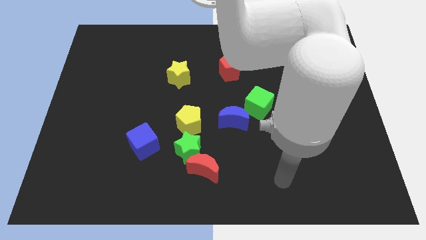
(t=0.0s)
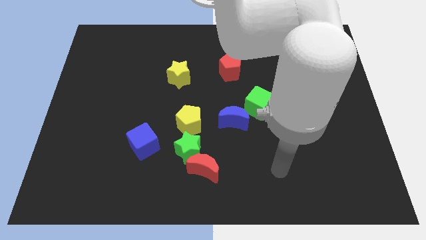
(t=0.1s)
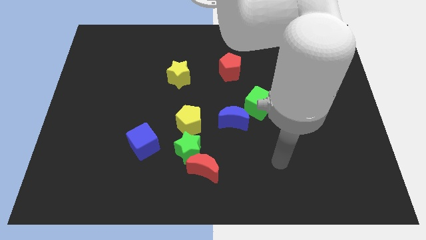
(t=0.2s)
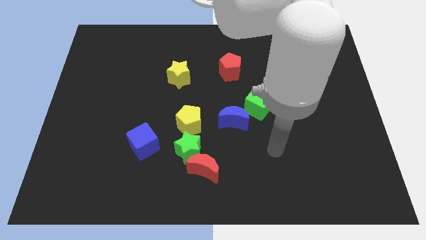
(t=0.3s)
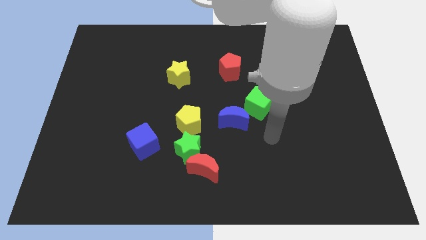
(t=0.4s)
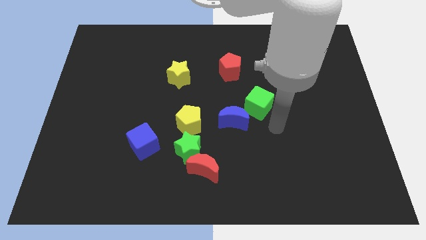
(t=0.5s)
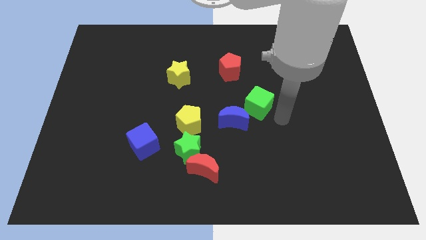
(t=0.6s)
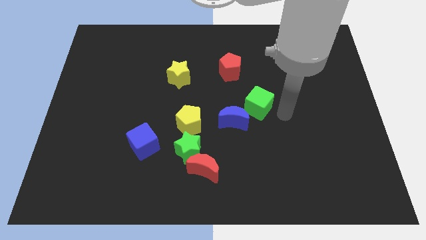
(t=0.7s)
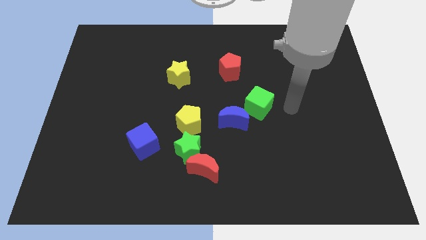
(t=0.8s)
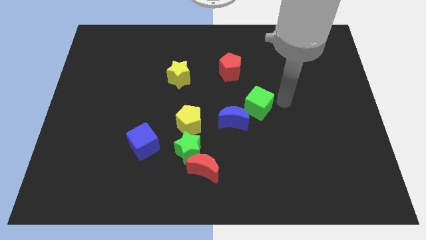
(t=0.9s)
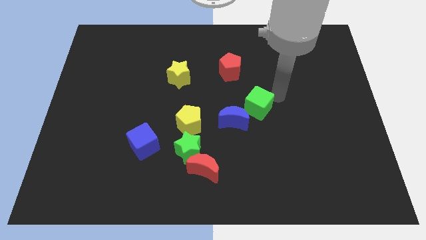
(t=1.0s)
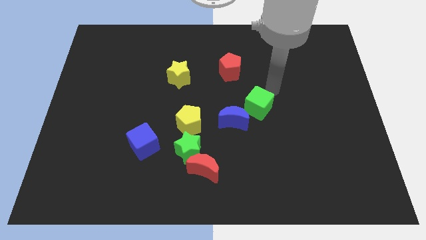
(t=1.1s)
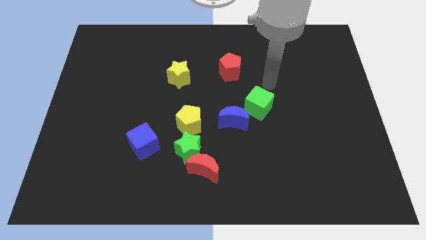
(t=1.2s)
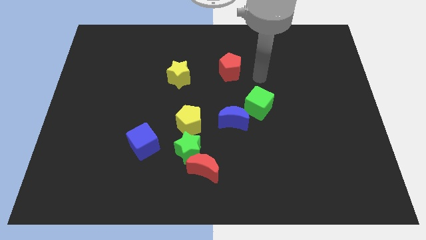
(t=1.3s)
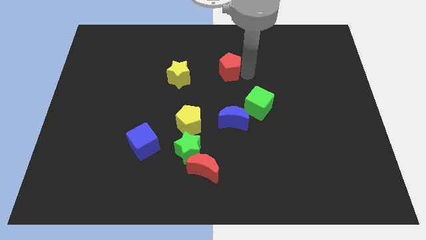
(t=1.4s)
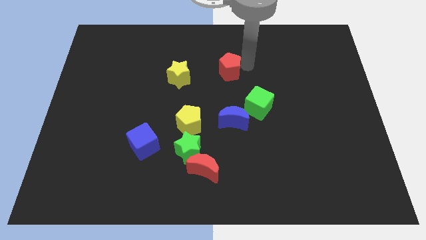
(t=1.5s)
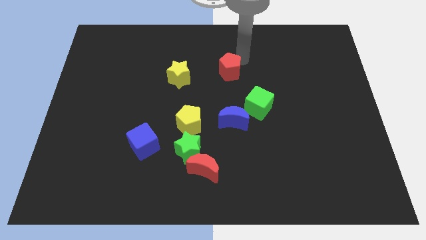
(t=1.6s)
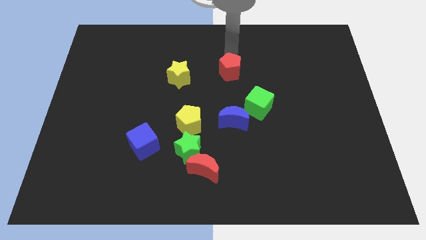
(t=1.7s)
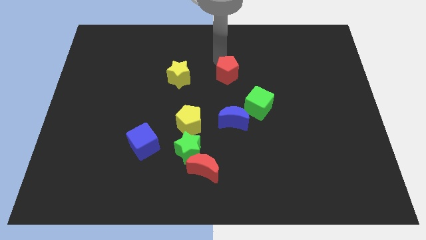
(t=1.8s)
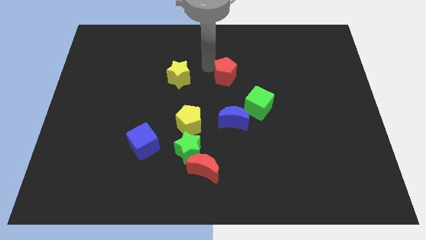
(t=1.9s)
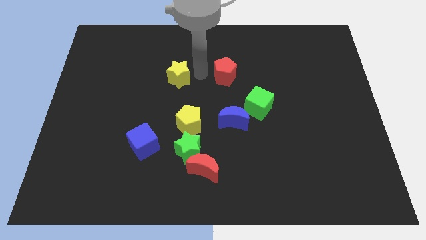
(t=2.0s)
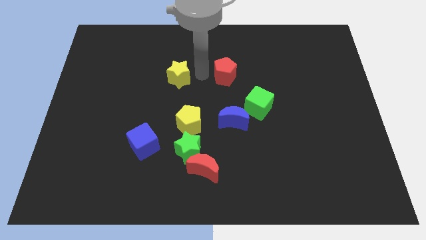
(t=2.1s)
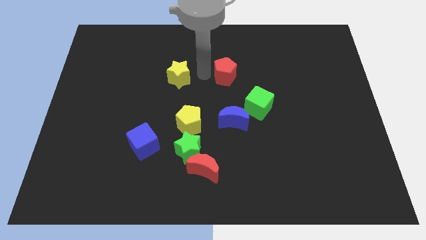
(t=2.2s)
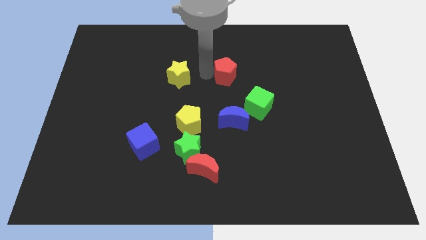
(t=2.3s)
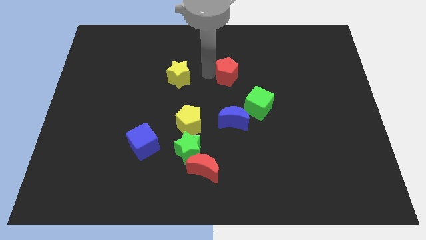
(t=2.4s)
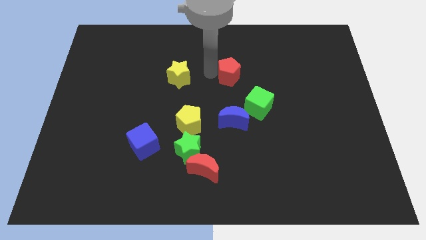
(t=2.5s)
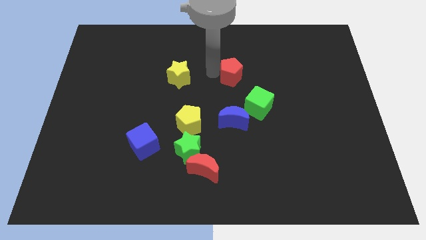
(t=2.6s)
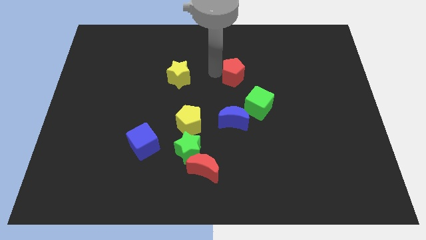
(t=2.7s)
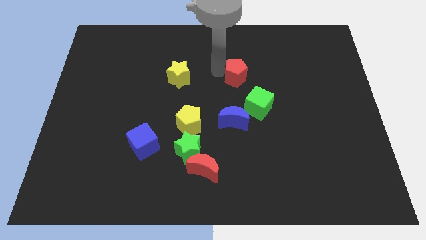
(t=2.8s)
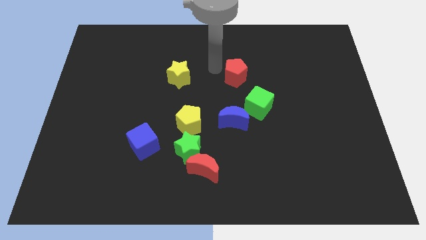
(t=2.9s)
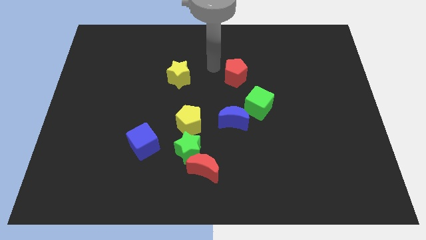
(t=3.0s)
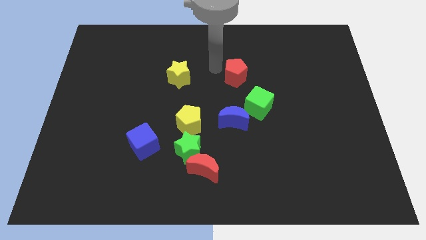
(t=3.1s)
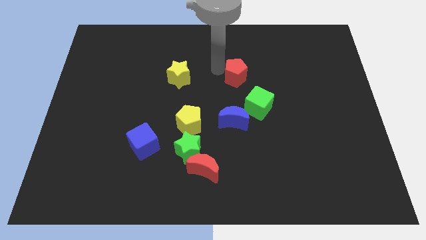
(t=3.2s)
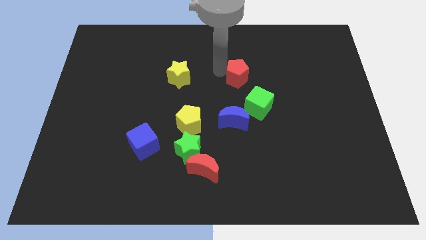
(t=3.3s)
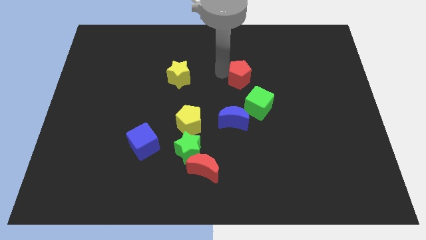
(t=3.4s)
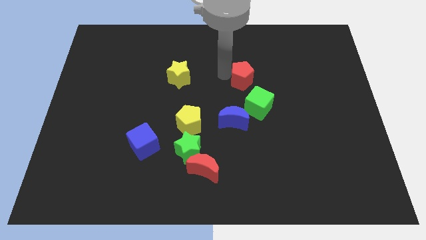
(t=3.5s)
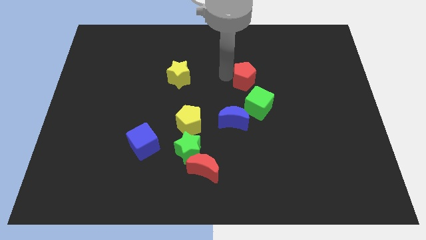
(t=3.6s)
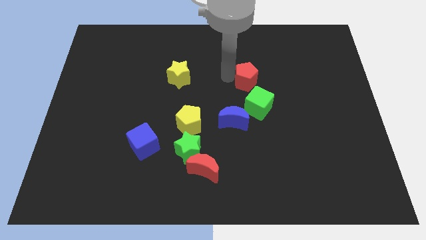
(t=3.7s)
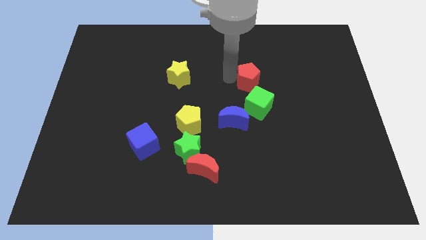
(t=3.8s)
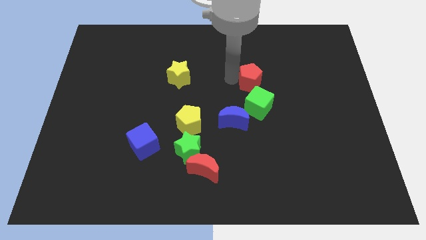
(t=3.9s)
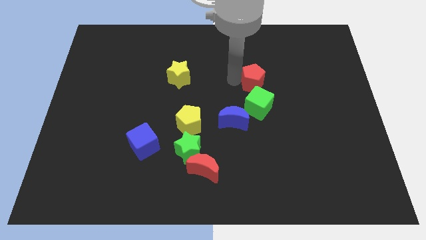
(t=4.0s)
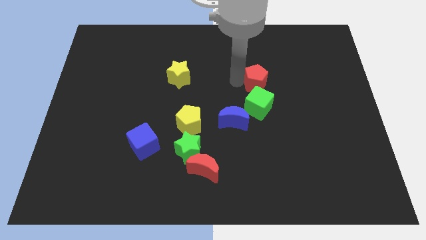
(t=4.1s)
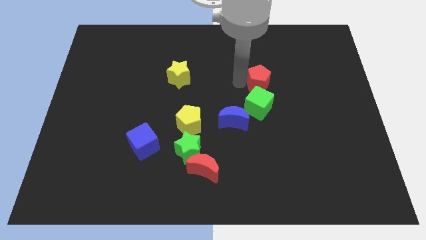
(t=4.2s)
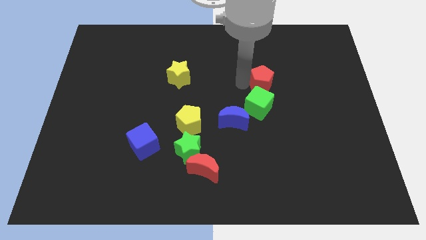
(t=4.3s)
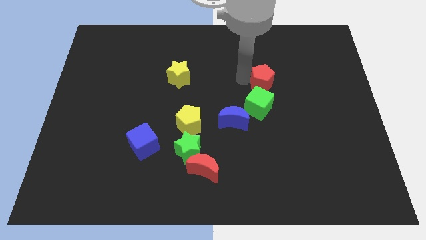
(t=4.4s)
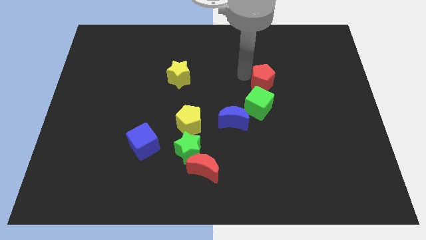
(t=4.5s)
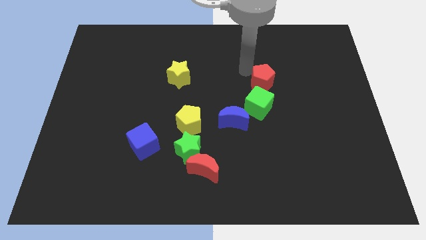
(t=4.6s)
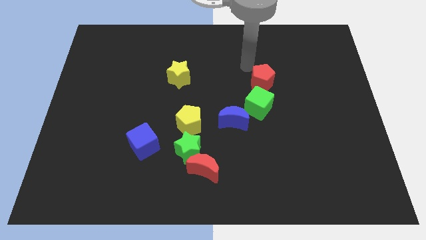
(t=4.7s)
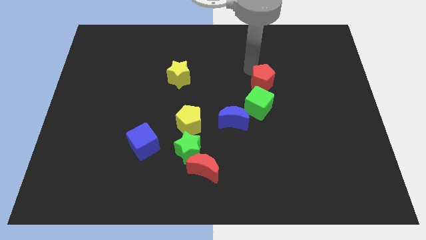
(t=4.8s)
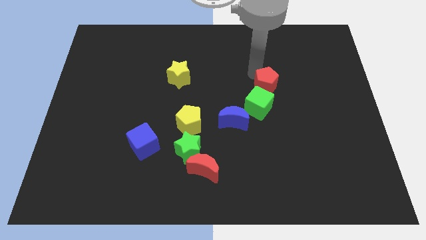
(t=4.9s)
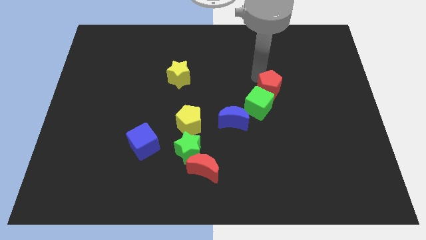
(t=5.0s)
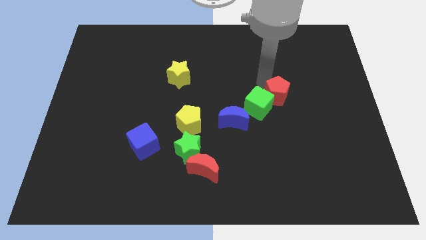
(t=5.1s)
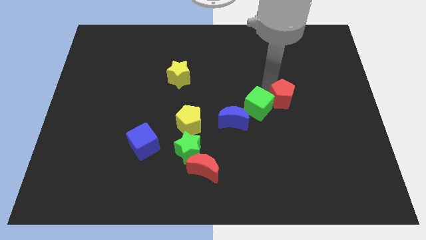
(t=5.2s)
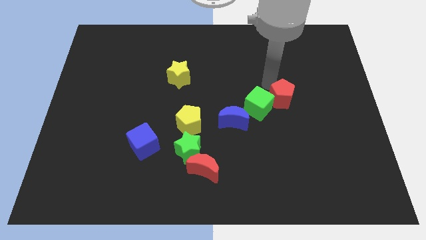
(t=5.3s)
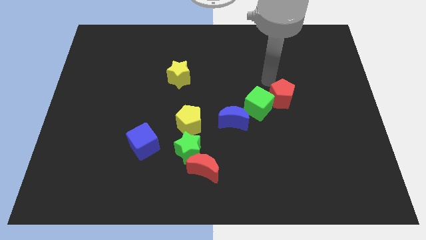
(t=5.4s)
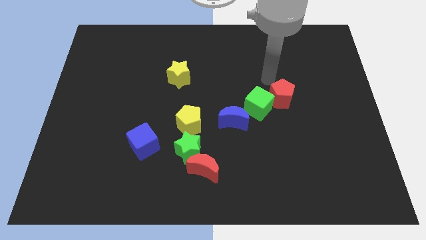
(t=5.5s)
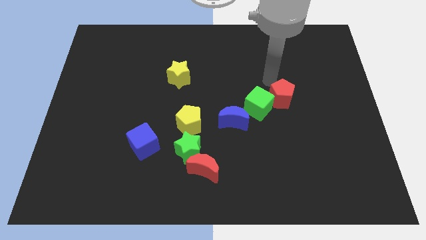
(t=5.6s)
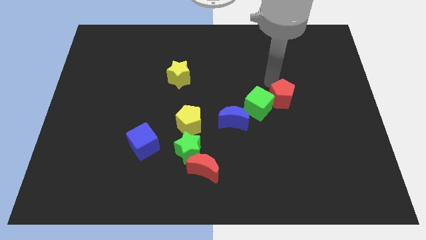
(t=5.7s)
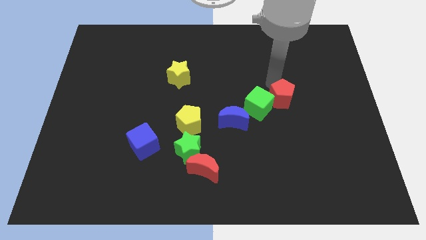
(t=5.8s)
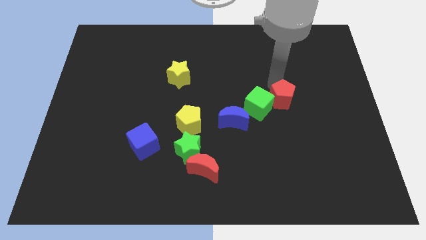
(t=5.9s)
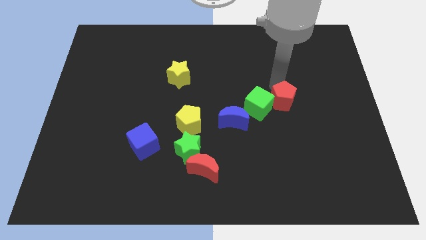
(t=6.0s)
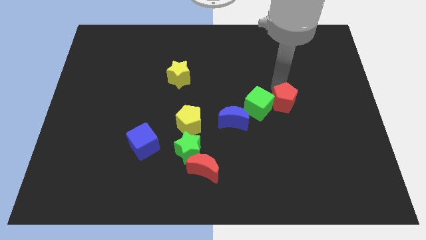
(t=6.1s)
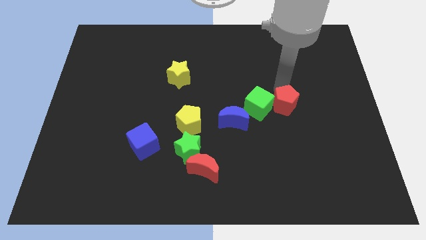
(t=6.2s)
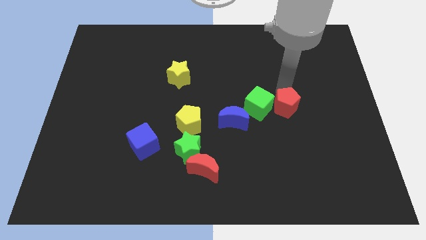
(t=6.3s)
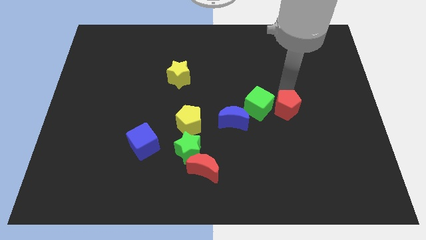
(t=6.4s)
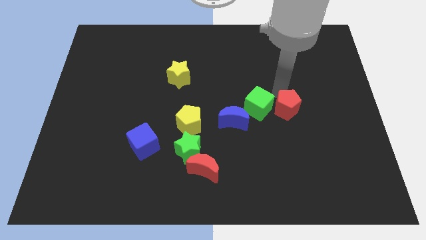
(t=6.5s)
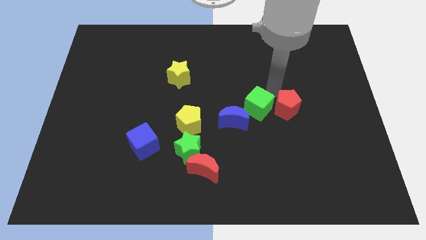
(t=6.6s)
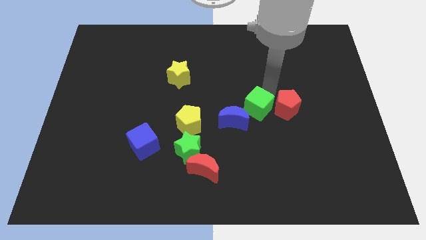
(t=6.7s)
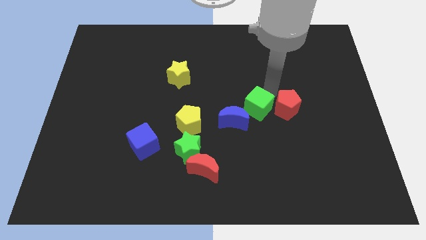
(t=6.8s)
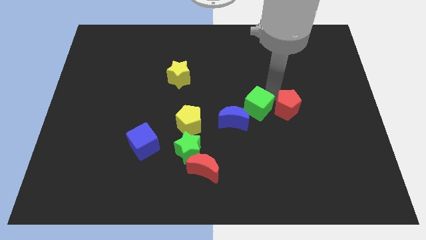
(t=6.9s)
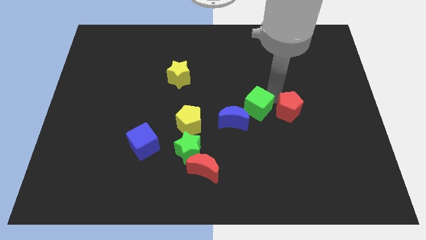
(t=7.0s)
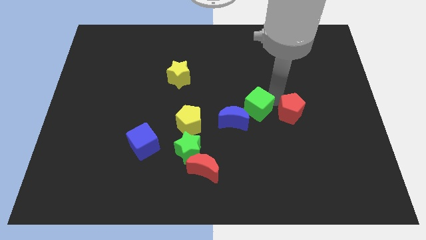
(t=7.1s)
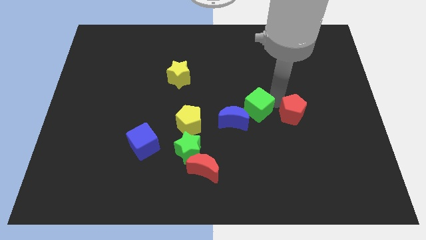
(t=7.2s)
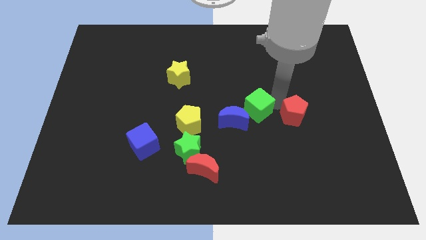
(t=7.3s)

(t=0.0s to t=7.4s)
move the red pentagon downwards and right diagonally

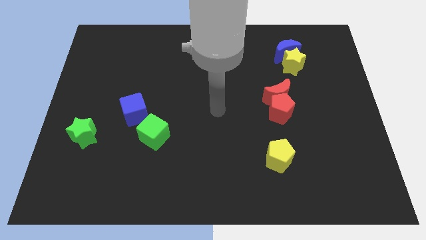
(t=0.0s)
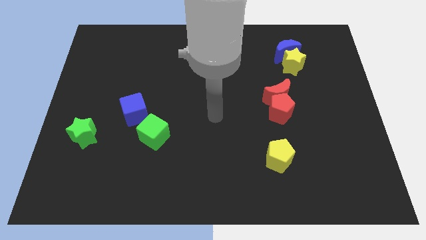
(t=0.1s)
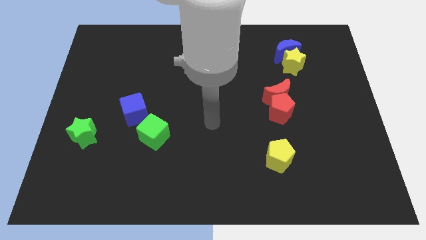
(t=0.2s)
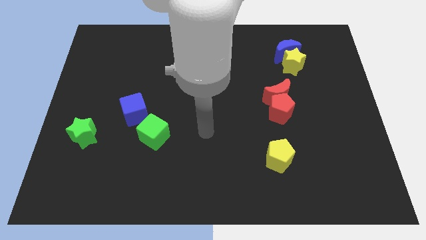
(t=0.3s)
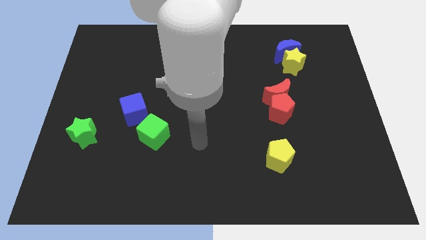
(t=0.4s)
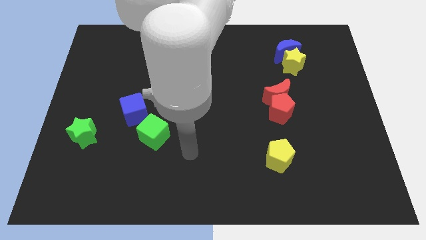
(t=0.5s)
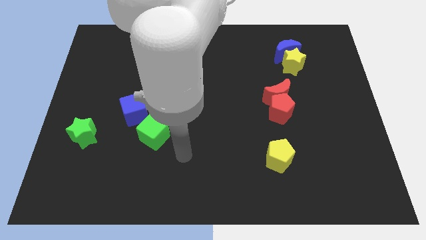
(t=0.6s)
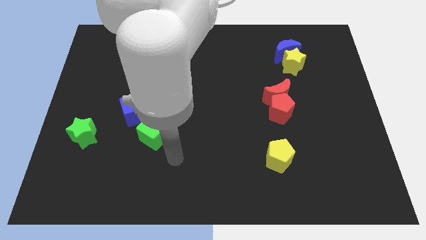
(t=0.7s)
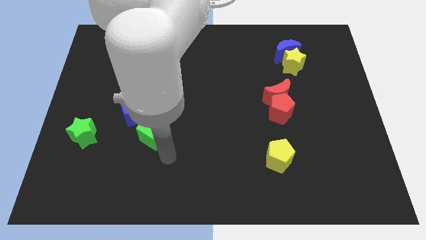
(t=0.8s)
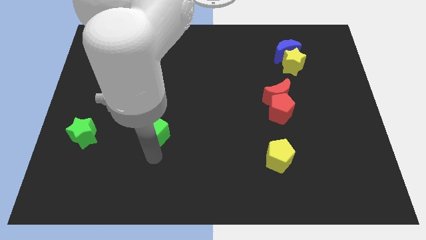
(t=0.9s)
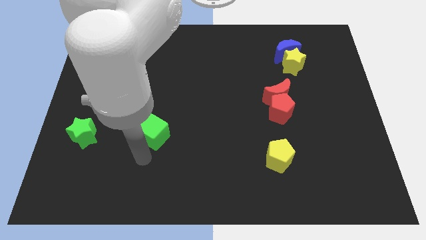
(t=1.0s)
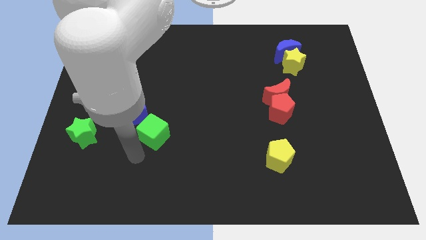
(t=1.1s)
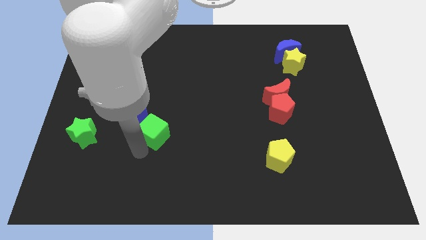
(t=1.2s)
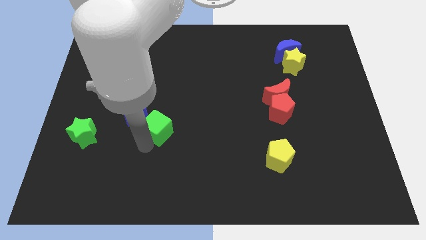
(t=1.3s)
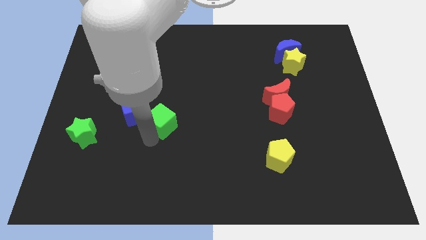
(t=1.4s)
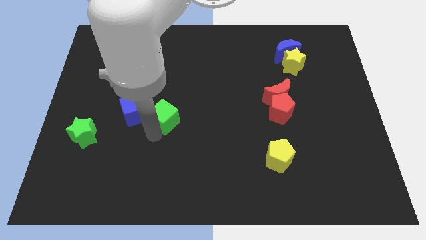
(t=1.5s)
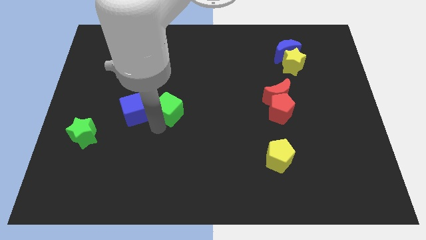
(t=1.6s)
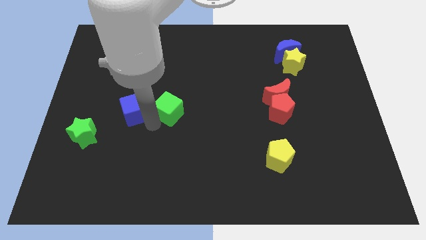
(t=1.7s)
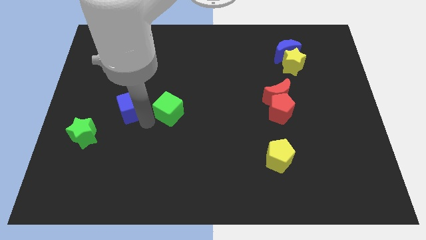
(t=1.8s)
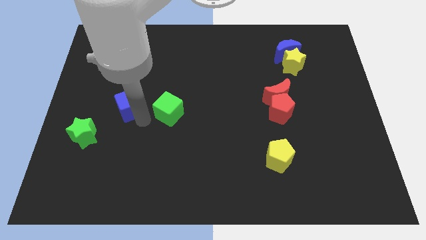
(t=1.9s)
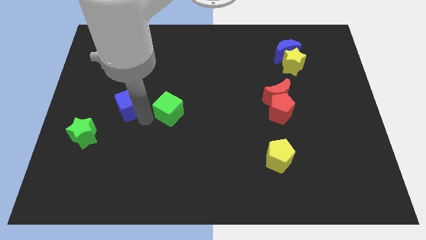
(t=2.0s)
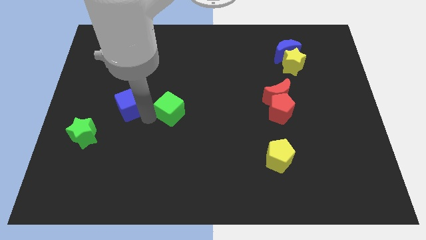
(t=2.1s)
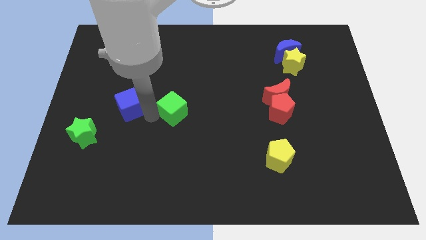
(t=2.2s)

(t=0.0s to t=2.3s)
move the green cube a little diagonally up and right
